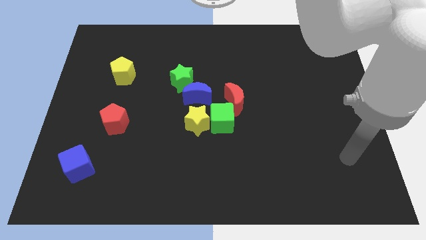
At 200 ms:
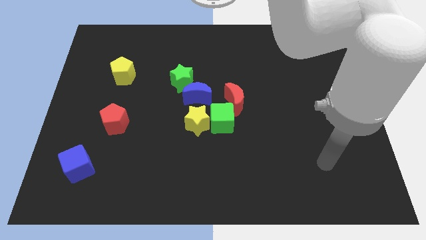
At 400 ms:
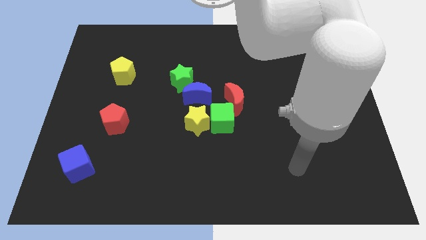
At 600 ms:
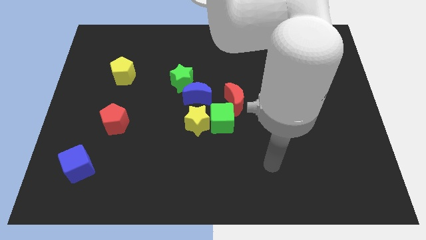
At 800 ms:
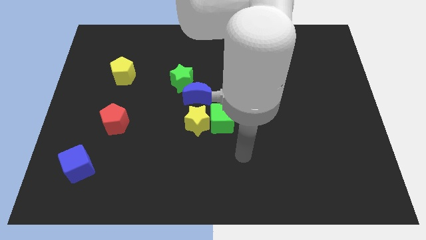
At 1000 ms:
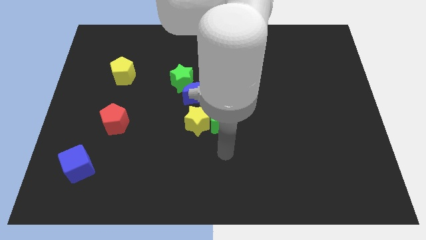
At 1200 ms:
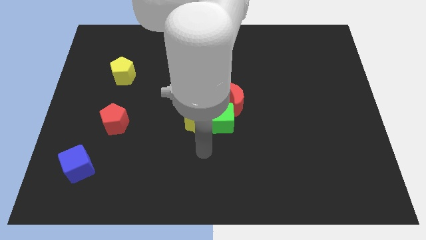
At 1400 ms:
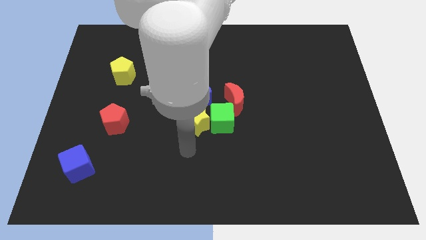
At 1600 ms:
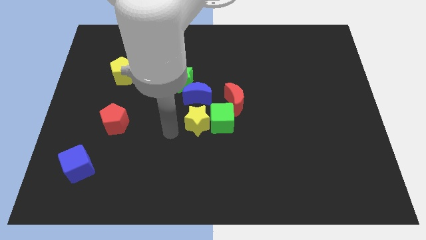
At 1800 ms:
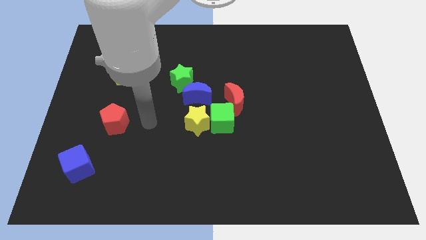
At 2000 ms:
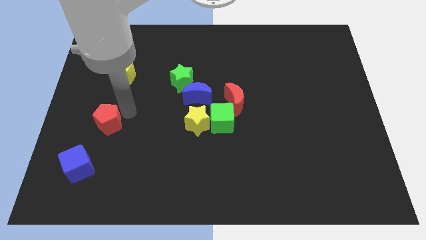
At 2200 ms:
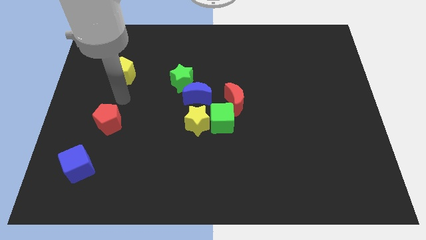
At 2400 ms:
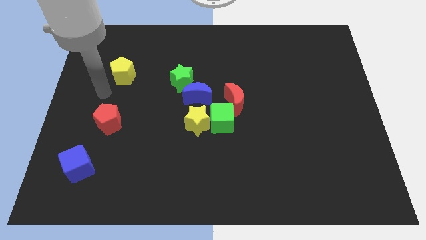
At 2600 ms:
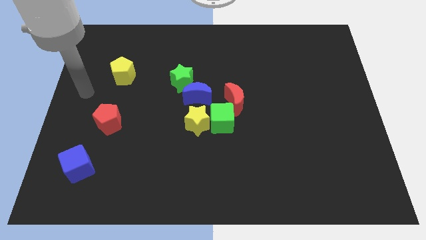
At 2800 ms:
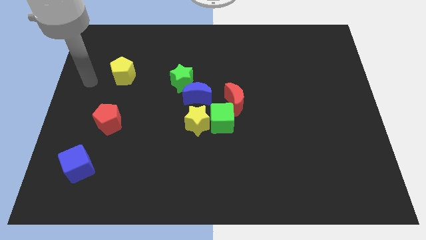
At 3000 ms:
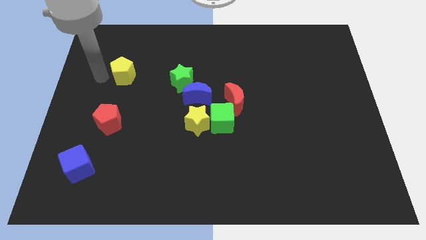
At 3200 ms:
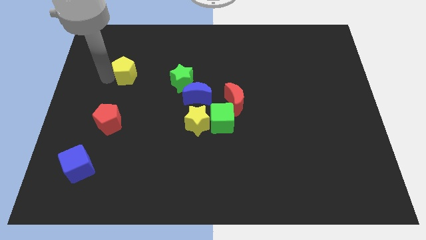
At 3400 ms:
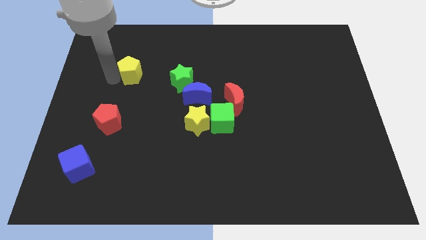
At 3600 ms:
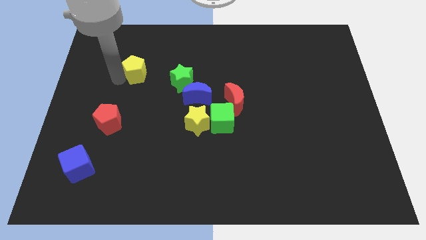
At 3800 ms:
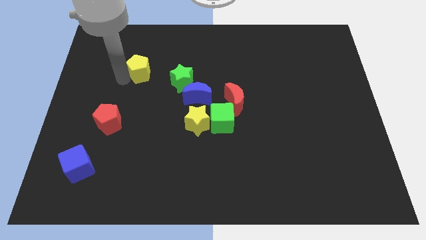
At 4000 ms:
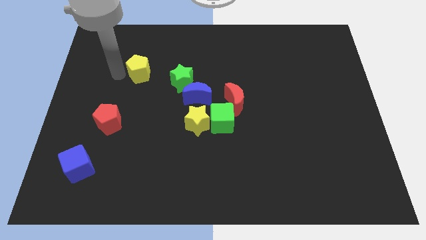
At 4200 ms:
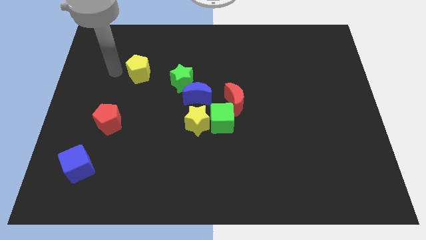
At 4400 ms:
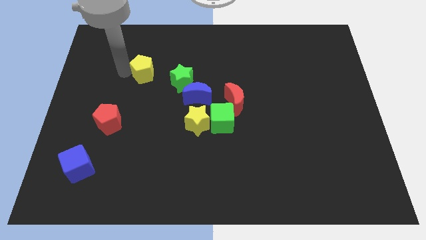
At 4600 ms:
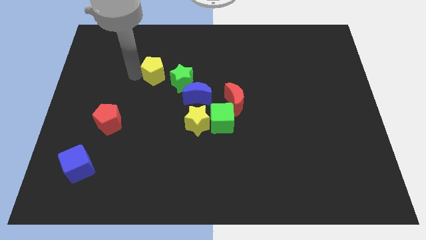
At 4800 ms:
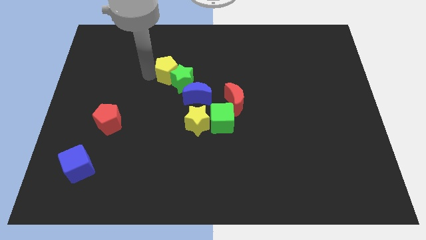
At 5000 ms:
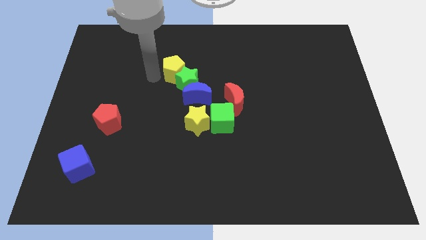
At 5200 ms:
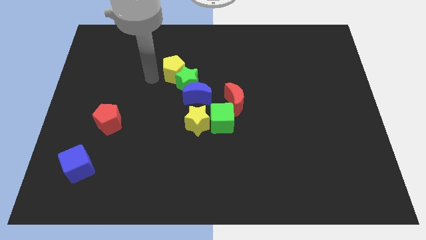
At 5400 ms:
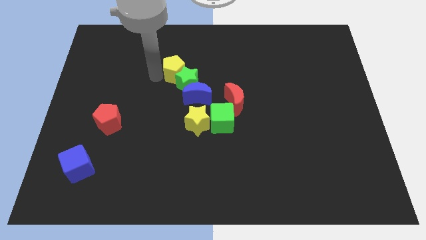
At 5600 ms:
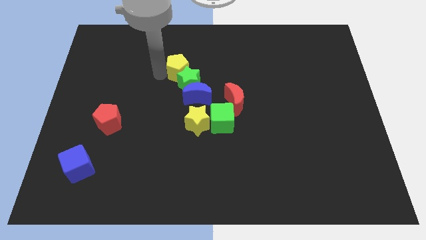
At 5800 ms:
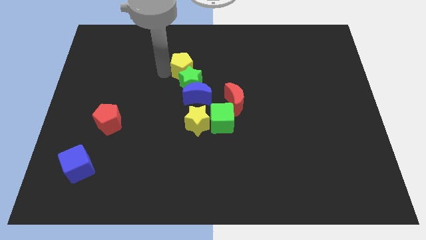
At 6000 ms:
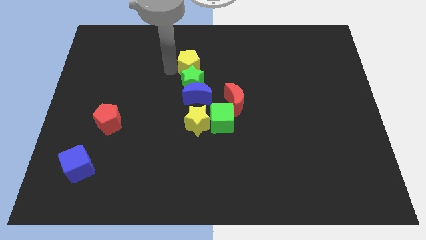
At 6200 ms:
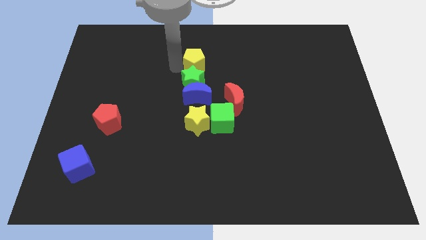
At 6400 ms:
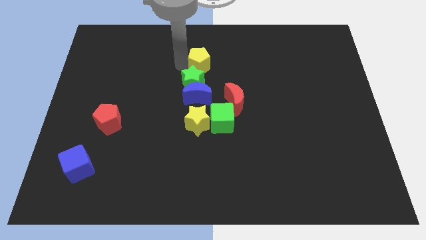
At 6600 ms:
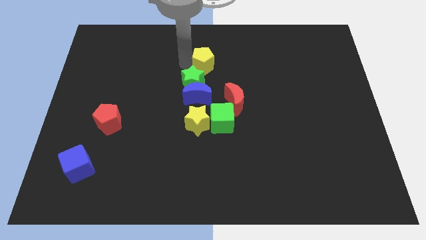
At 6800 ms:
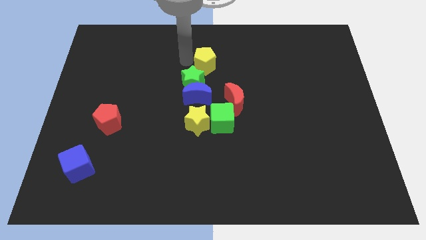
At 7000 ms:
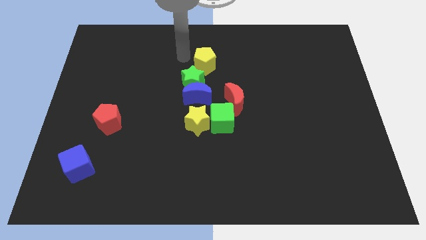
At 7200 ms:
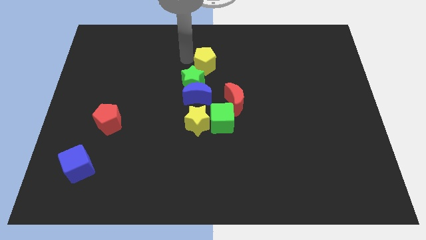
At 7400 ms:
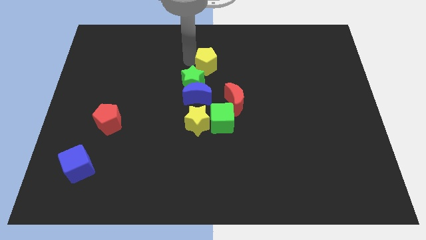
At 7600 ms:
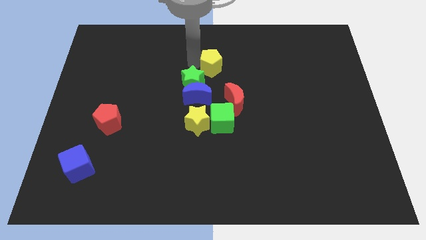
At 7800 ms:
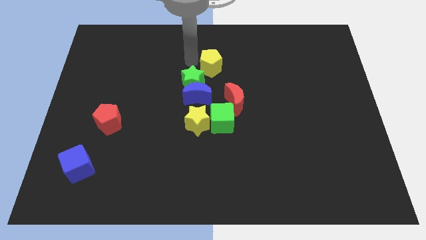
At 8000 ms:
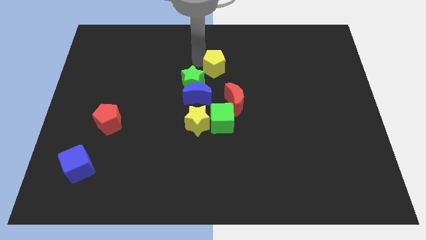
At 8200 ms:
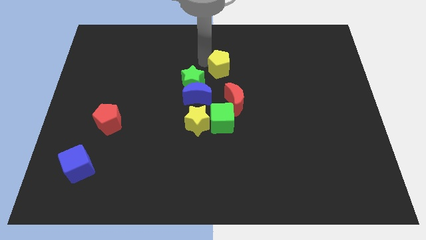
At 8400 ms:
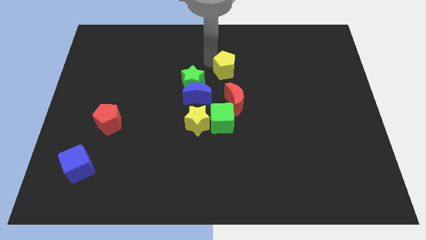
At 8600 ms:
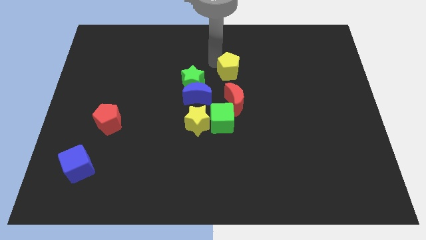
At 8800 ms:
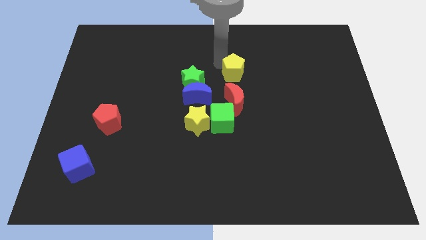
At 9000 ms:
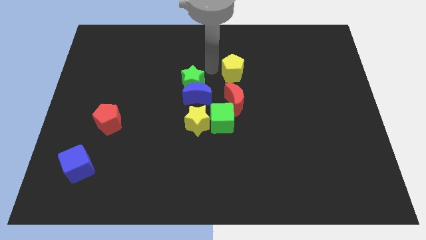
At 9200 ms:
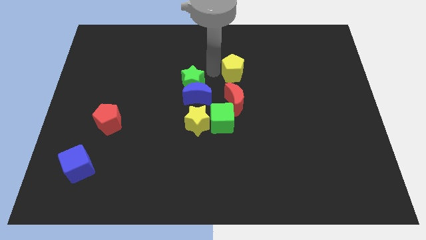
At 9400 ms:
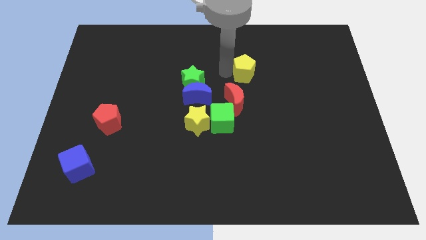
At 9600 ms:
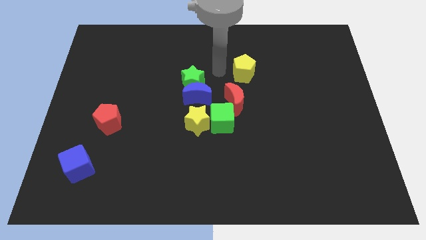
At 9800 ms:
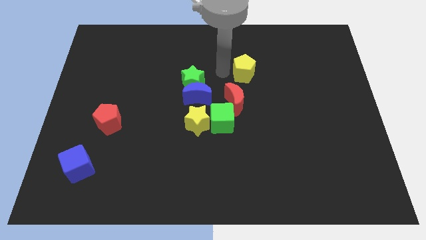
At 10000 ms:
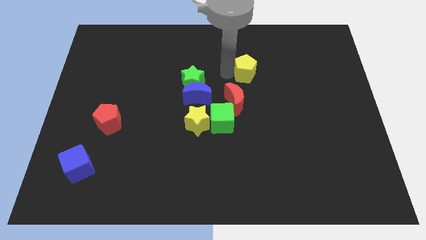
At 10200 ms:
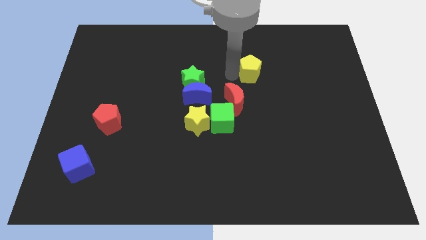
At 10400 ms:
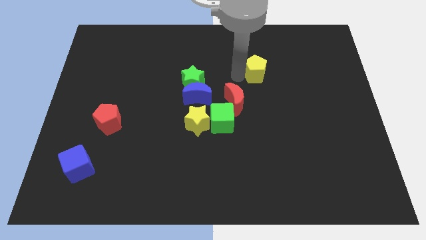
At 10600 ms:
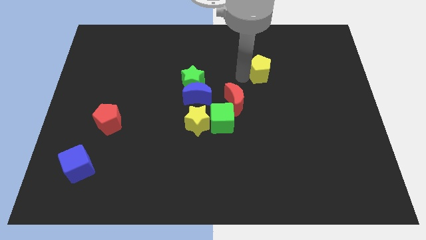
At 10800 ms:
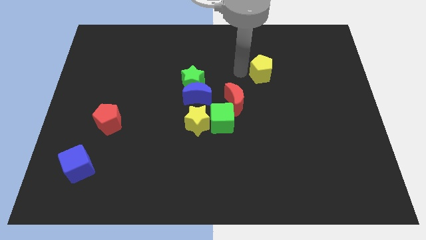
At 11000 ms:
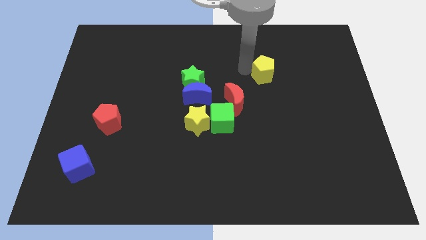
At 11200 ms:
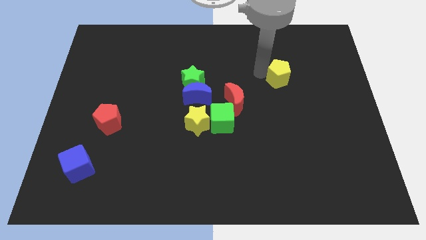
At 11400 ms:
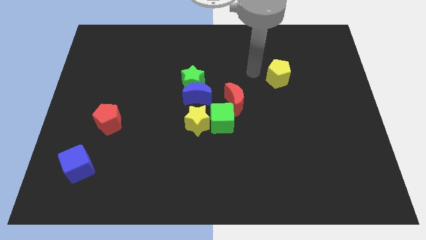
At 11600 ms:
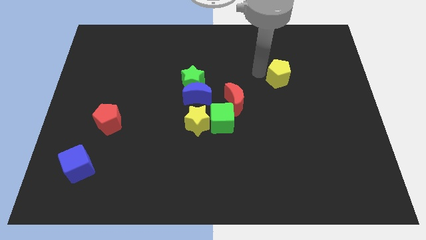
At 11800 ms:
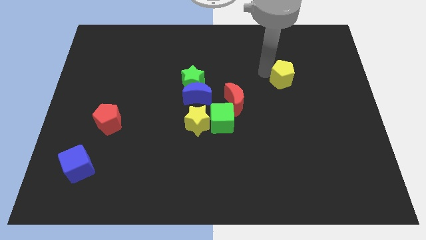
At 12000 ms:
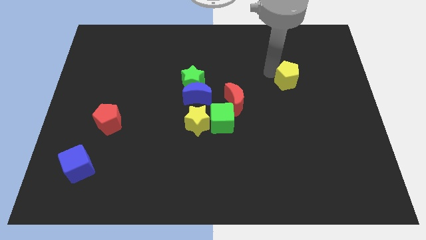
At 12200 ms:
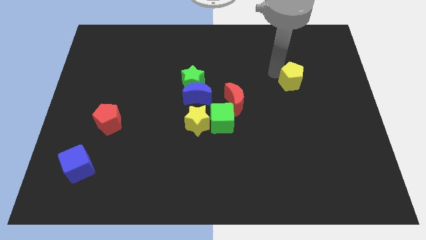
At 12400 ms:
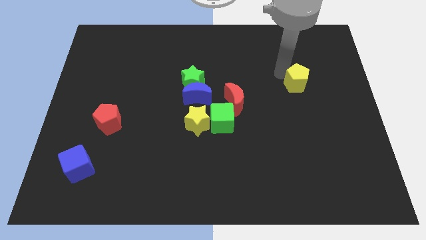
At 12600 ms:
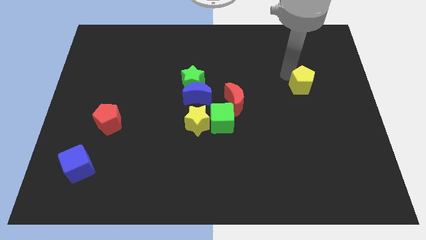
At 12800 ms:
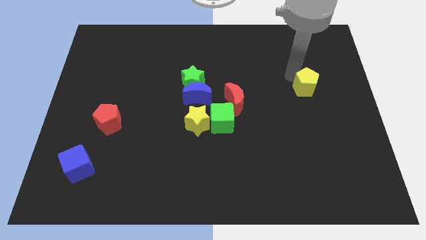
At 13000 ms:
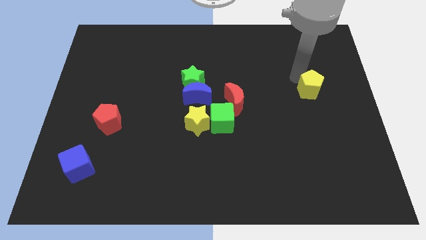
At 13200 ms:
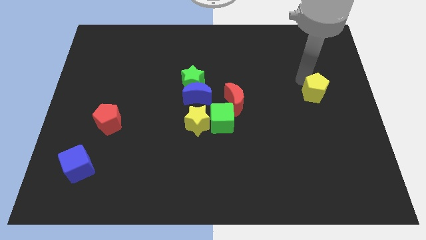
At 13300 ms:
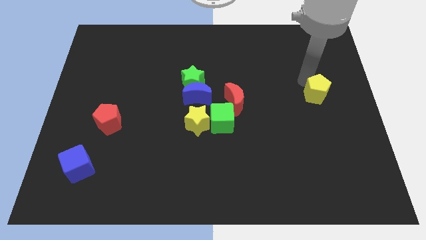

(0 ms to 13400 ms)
move the yellow pentagon to the center right
